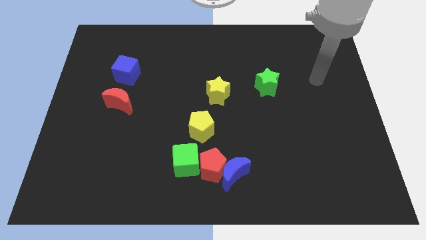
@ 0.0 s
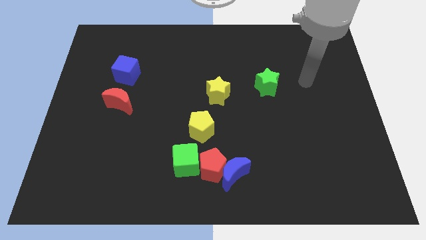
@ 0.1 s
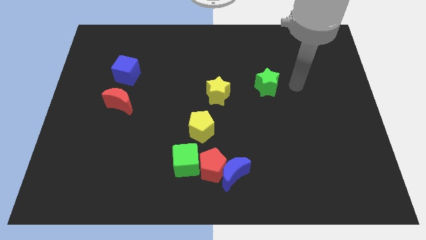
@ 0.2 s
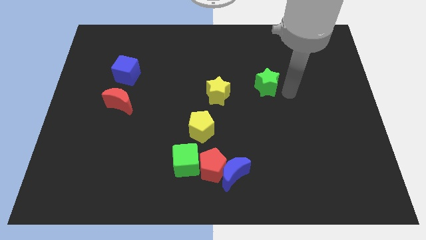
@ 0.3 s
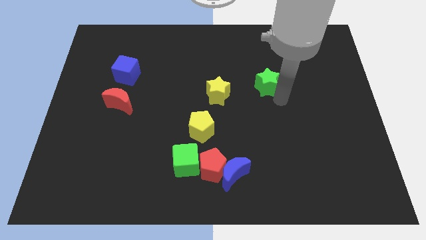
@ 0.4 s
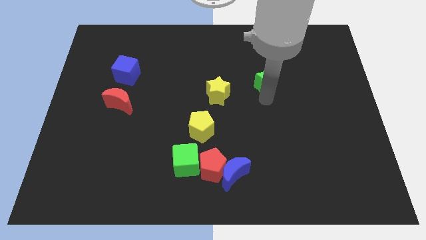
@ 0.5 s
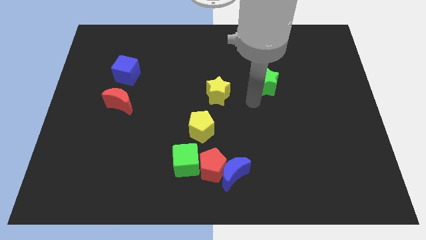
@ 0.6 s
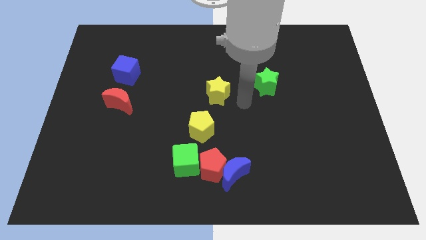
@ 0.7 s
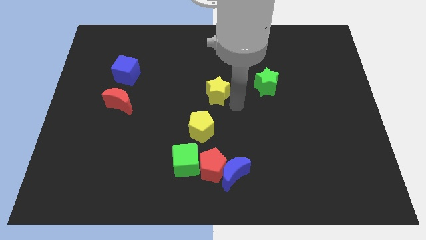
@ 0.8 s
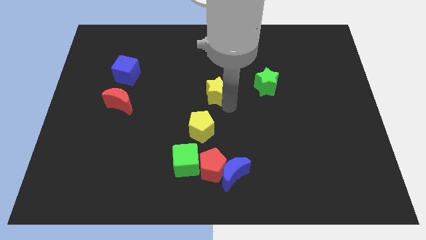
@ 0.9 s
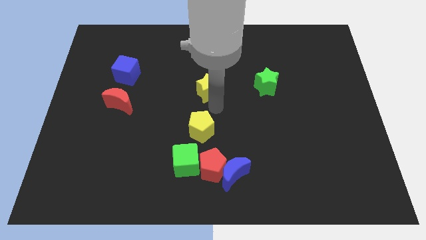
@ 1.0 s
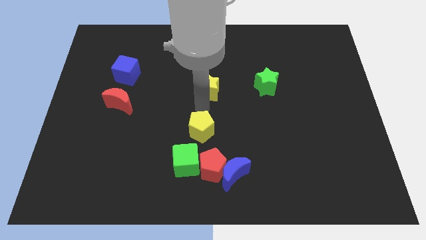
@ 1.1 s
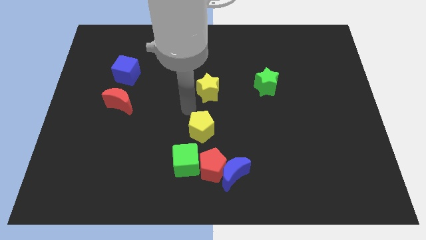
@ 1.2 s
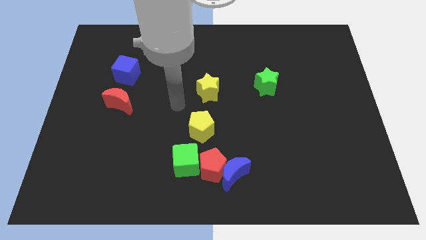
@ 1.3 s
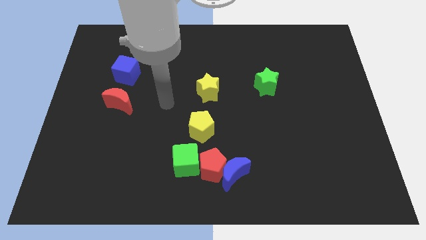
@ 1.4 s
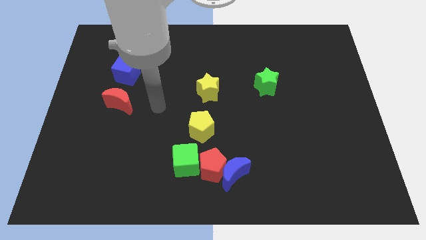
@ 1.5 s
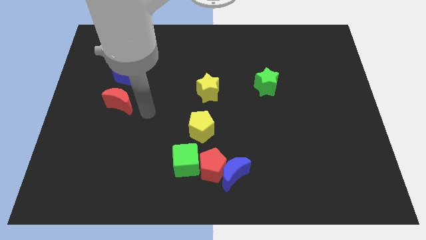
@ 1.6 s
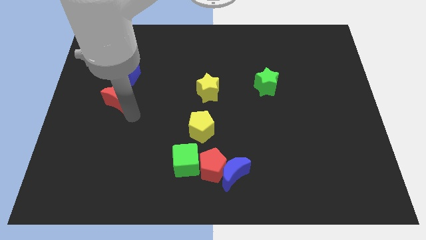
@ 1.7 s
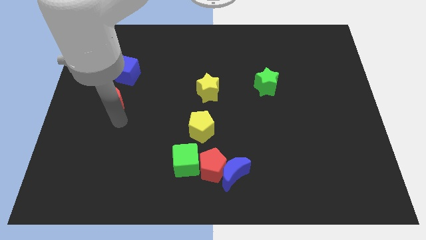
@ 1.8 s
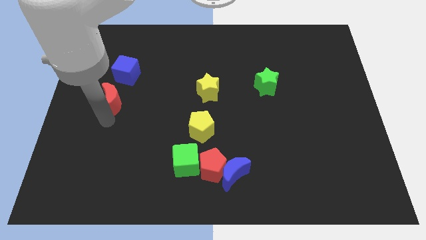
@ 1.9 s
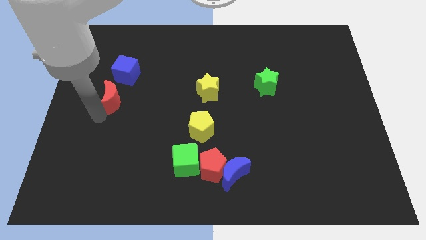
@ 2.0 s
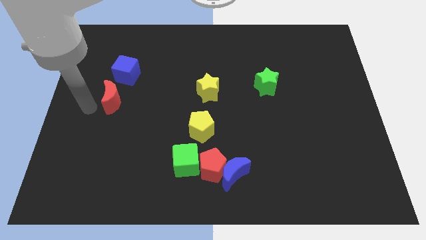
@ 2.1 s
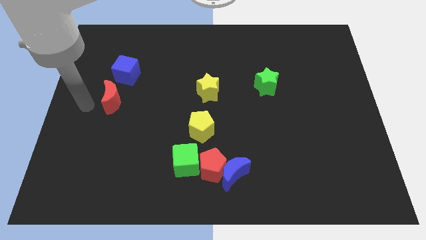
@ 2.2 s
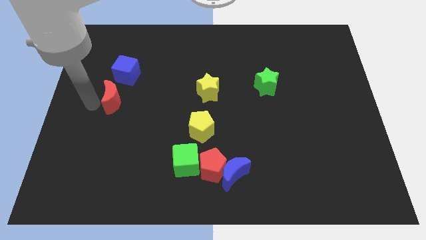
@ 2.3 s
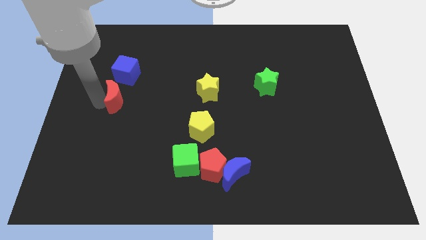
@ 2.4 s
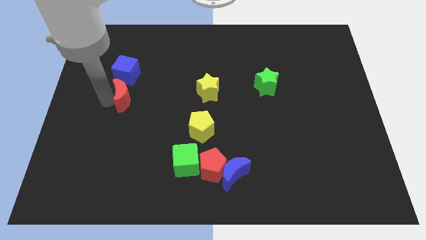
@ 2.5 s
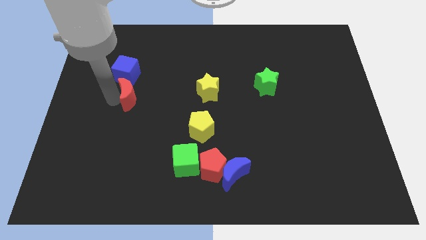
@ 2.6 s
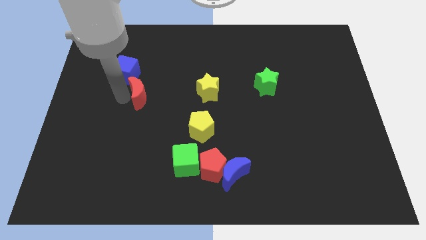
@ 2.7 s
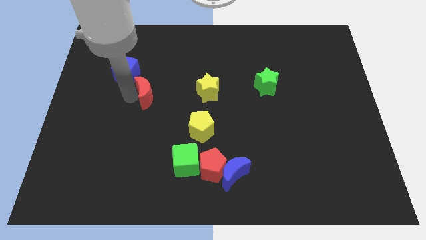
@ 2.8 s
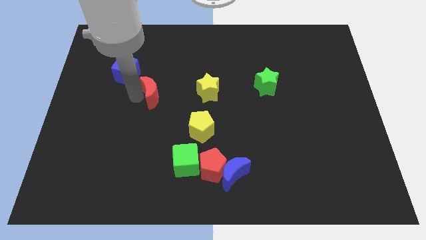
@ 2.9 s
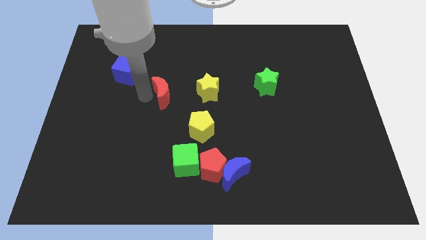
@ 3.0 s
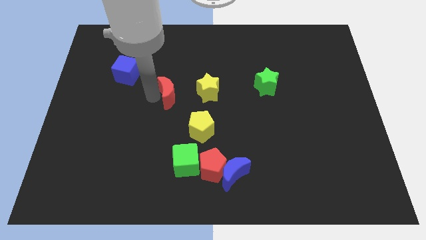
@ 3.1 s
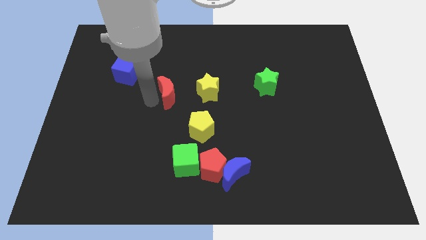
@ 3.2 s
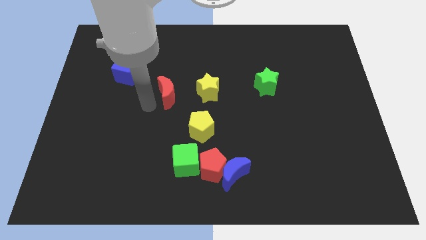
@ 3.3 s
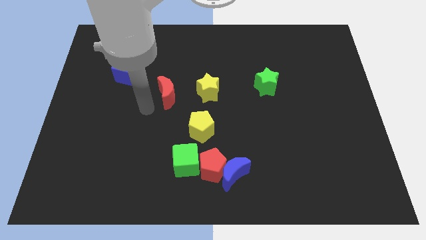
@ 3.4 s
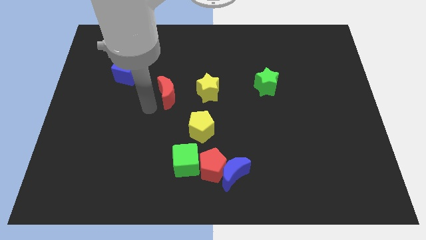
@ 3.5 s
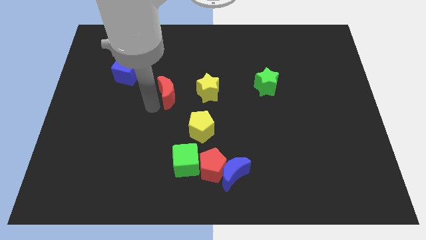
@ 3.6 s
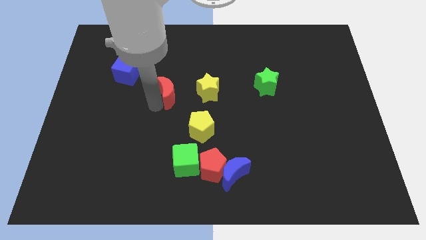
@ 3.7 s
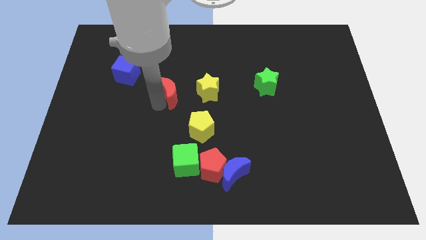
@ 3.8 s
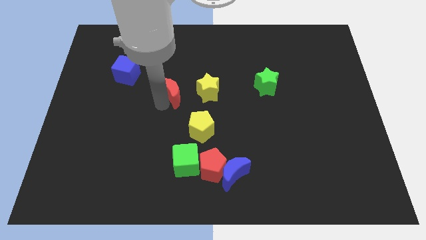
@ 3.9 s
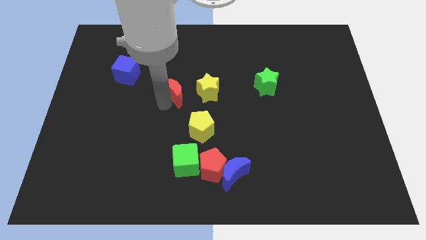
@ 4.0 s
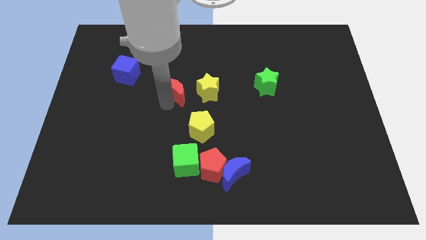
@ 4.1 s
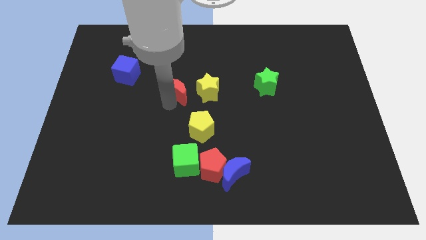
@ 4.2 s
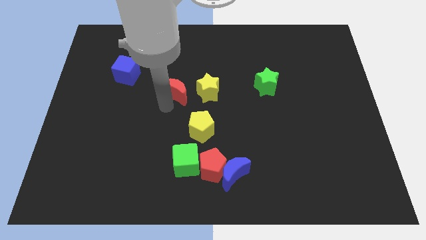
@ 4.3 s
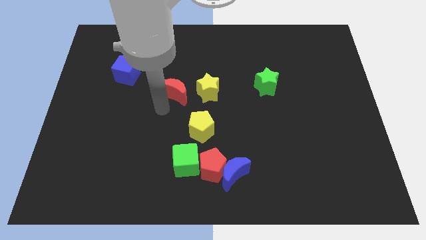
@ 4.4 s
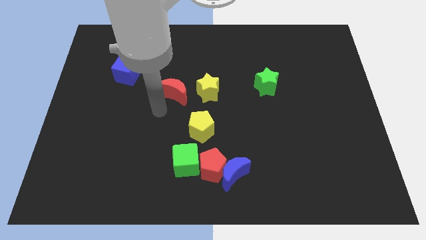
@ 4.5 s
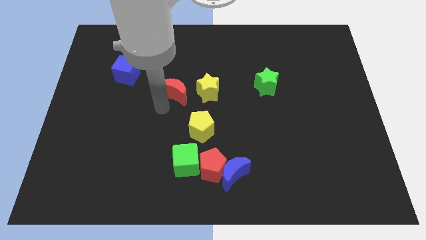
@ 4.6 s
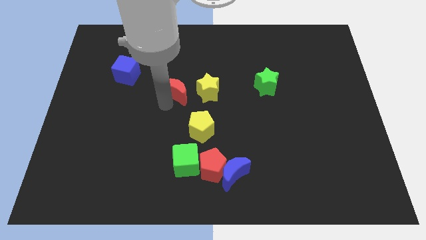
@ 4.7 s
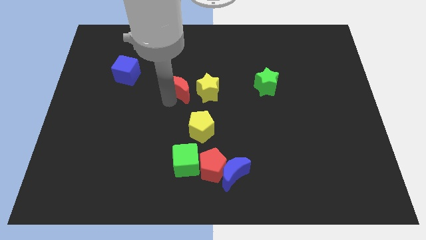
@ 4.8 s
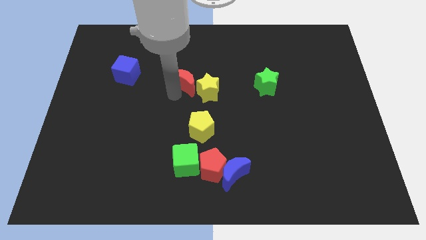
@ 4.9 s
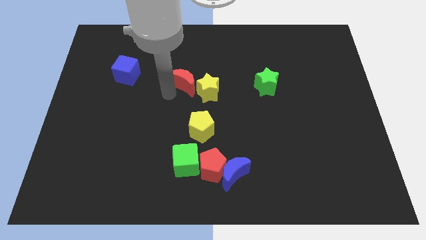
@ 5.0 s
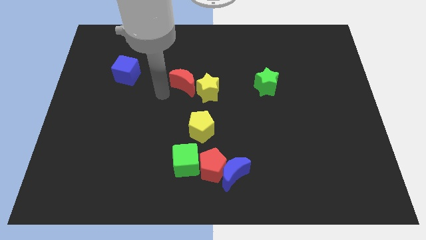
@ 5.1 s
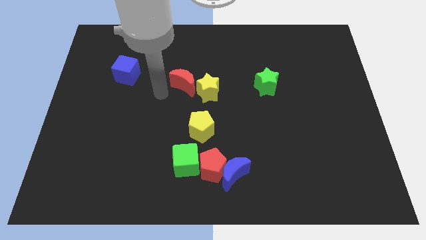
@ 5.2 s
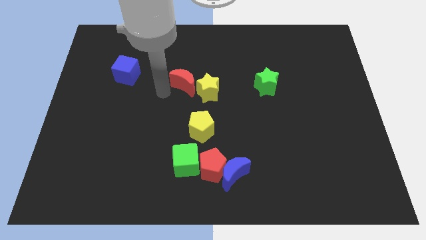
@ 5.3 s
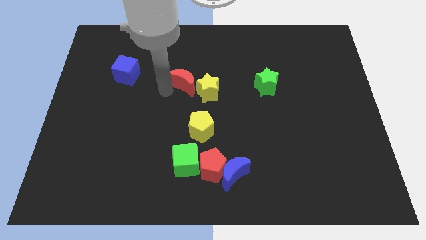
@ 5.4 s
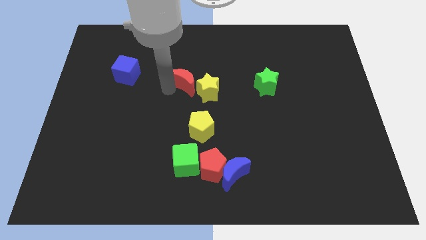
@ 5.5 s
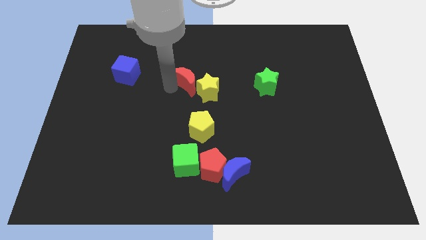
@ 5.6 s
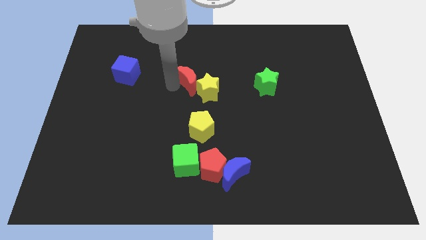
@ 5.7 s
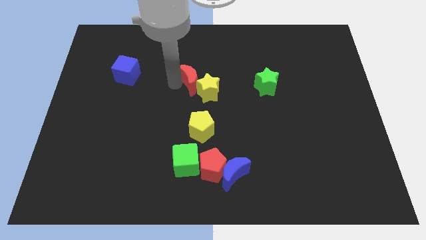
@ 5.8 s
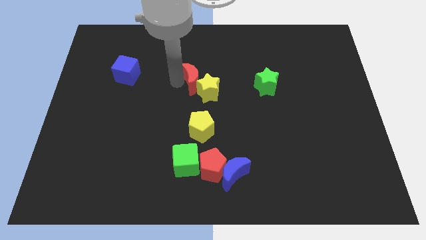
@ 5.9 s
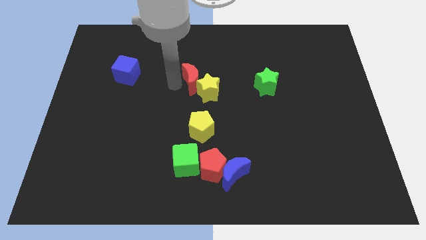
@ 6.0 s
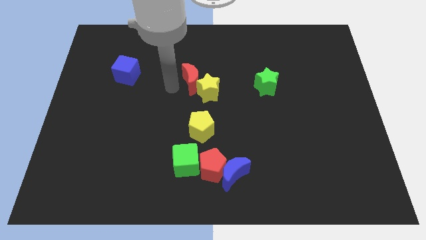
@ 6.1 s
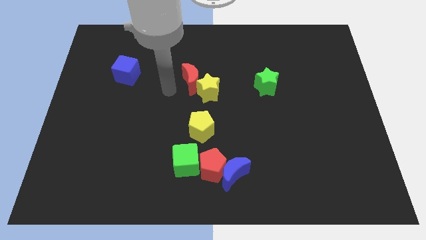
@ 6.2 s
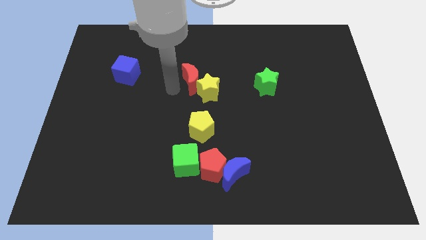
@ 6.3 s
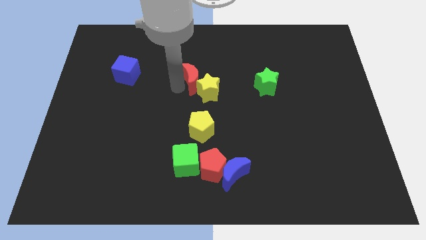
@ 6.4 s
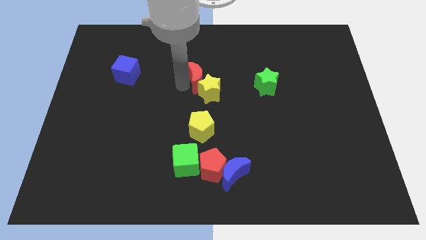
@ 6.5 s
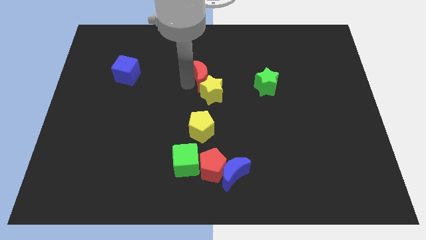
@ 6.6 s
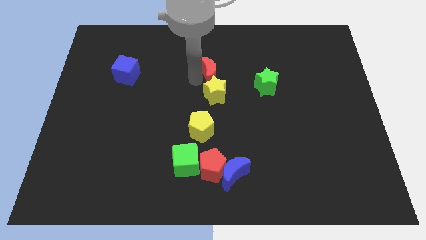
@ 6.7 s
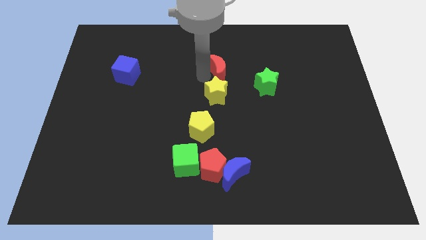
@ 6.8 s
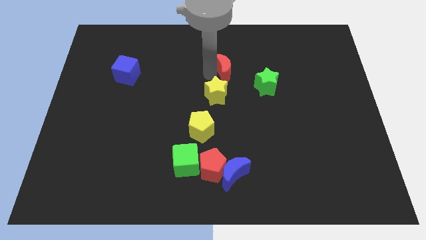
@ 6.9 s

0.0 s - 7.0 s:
slide the red moon to the top left side of the green star
